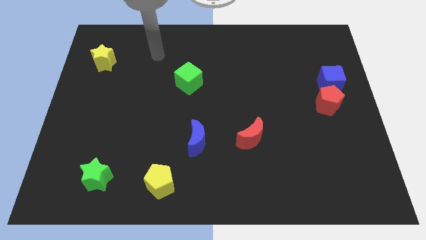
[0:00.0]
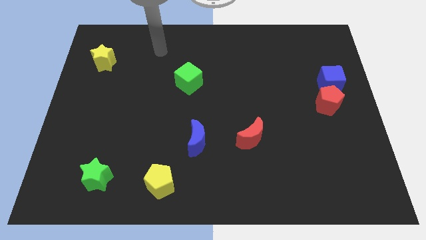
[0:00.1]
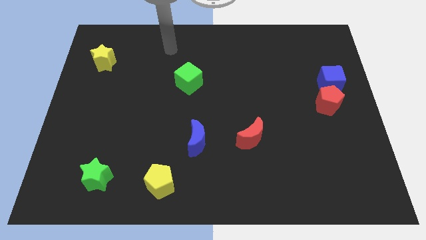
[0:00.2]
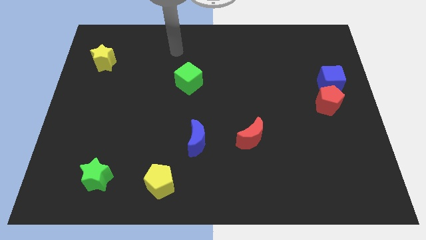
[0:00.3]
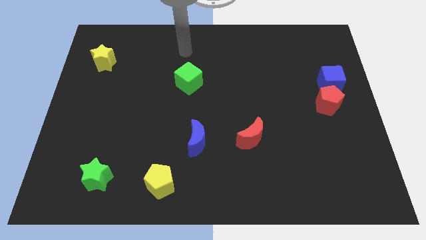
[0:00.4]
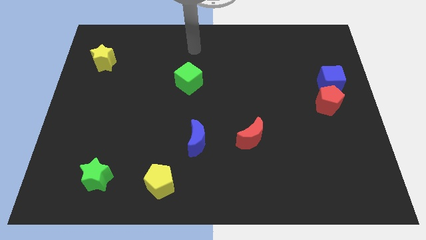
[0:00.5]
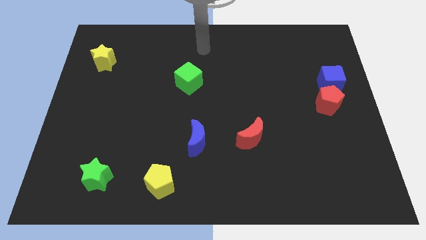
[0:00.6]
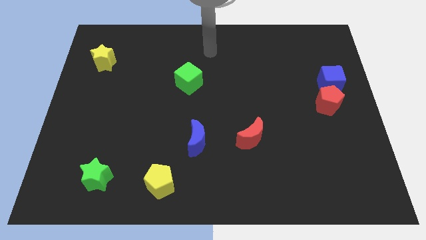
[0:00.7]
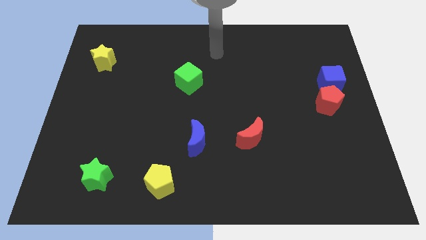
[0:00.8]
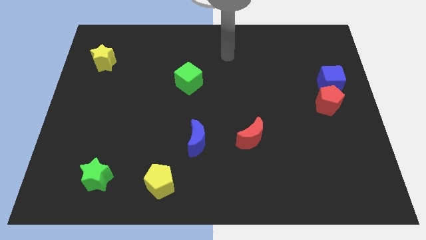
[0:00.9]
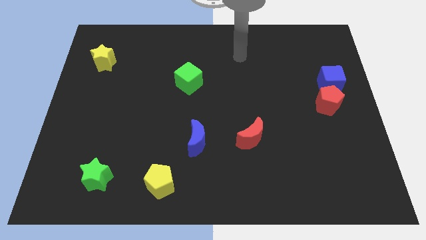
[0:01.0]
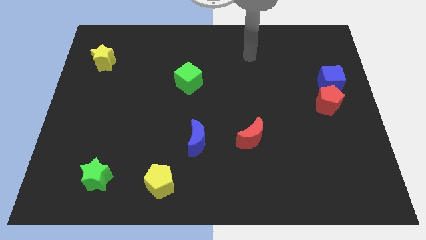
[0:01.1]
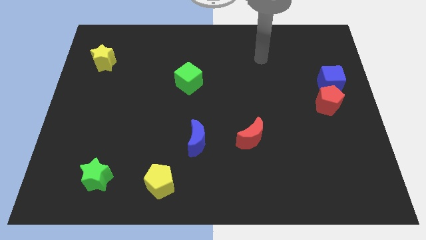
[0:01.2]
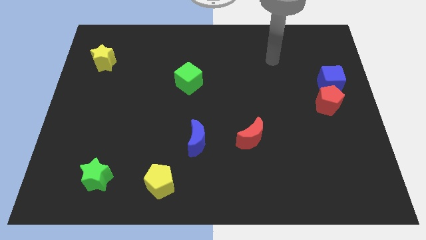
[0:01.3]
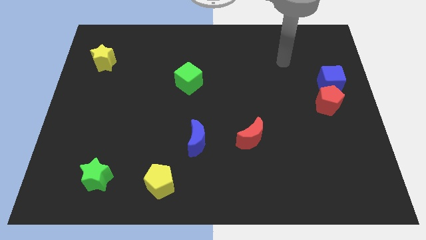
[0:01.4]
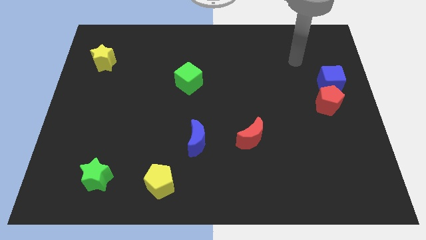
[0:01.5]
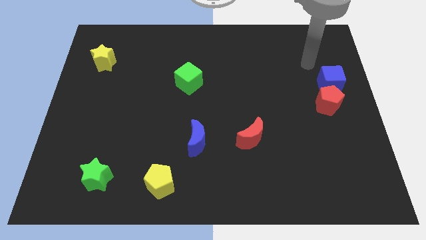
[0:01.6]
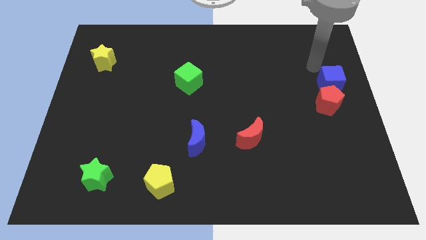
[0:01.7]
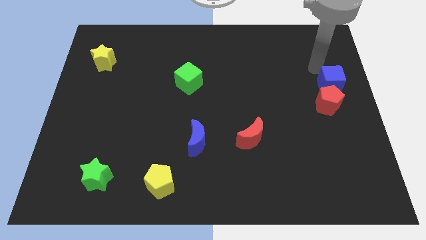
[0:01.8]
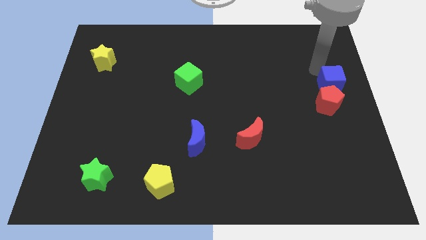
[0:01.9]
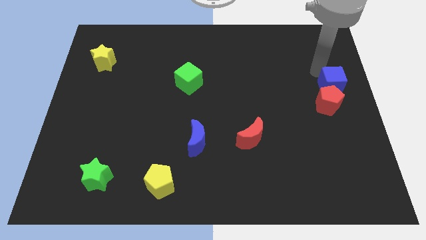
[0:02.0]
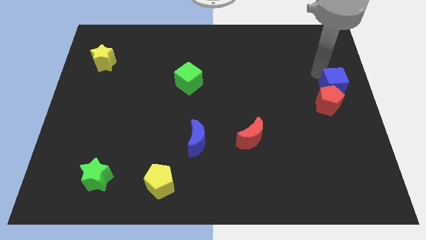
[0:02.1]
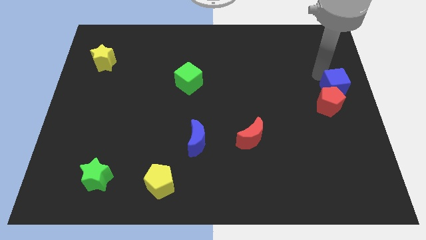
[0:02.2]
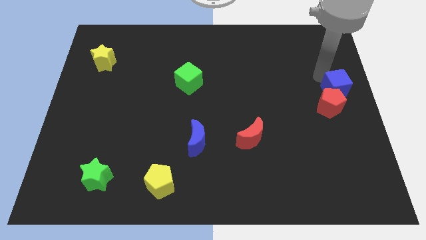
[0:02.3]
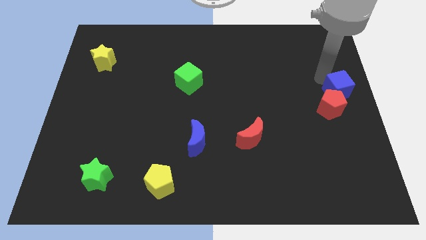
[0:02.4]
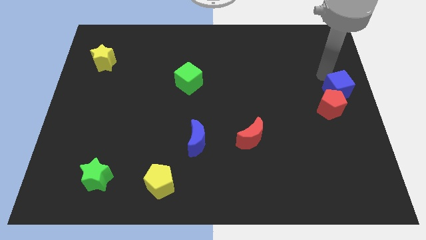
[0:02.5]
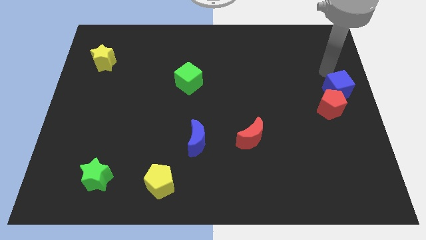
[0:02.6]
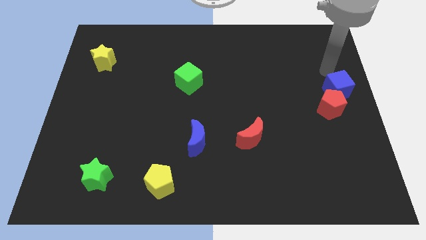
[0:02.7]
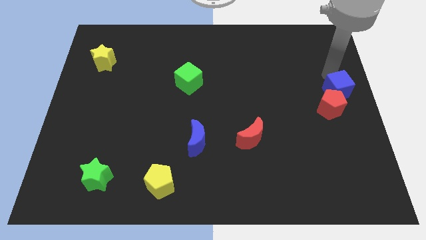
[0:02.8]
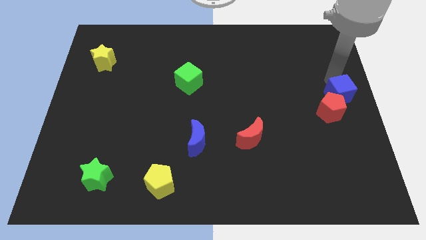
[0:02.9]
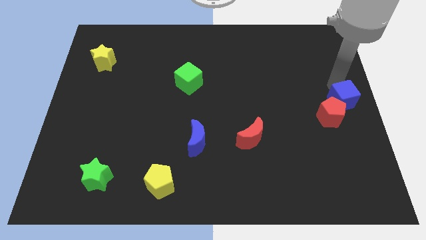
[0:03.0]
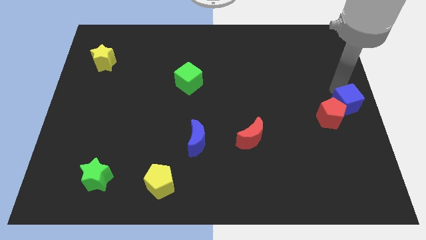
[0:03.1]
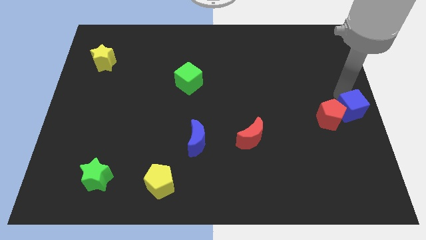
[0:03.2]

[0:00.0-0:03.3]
slightly move the blue cube down

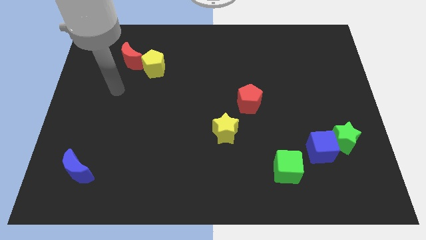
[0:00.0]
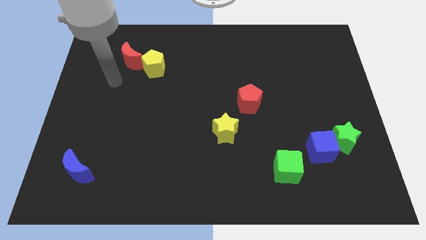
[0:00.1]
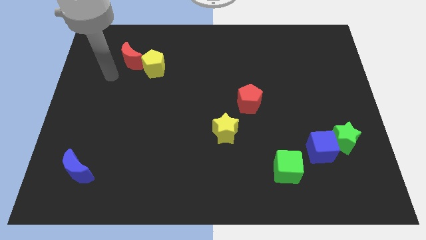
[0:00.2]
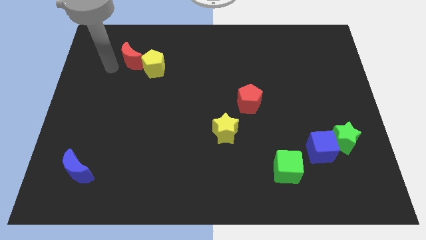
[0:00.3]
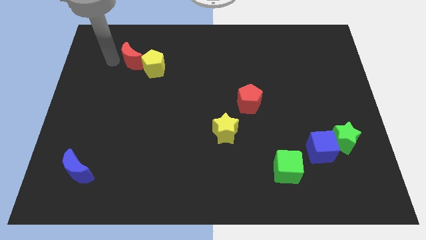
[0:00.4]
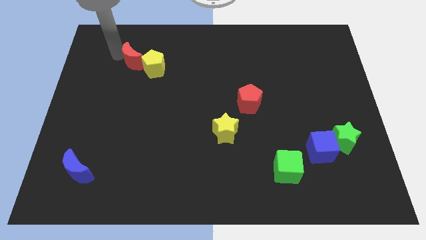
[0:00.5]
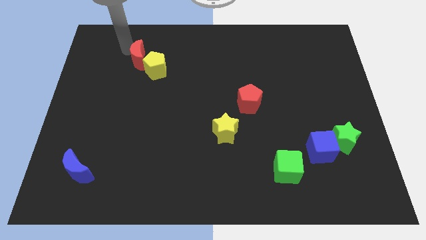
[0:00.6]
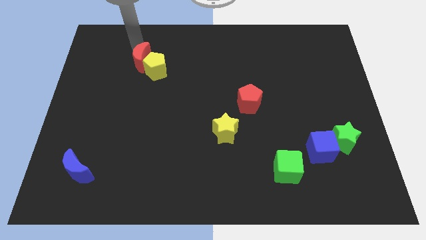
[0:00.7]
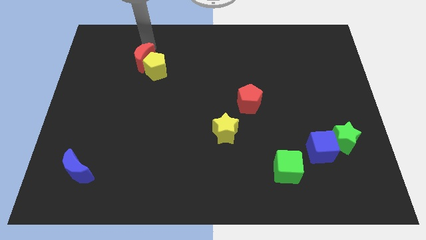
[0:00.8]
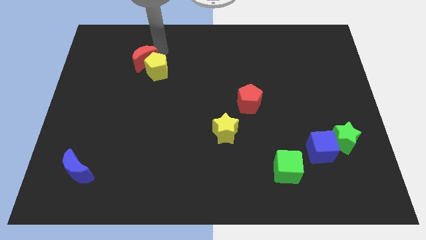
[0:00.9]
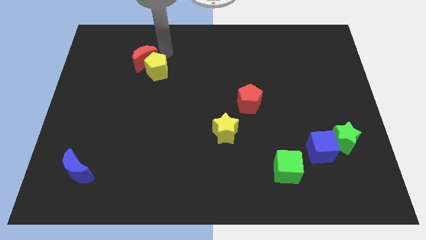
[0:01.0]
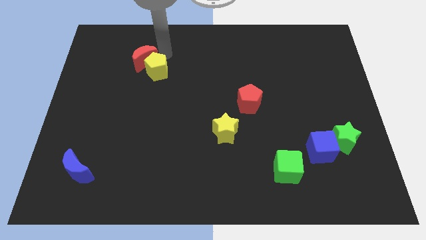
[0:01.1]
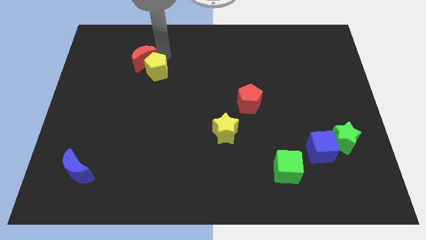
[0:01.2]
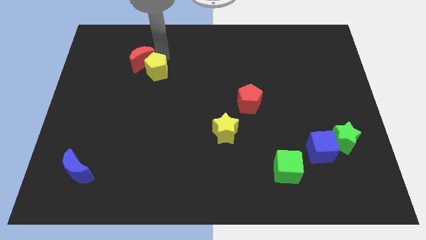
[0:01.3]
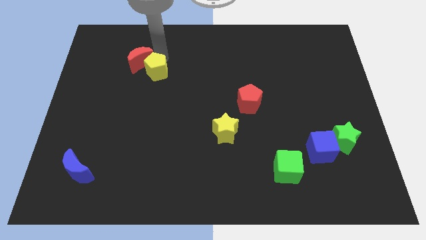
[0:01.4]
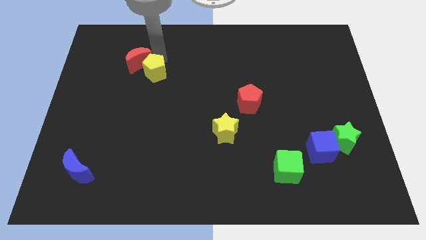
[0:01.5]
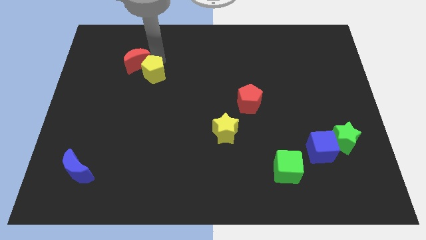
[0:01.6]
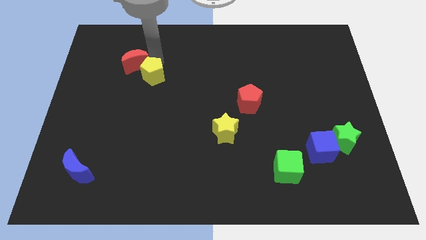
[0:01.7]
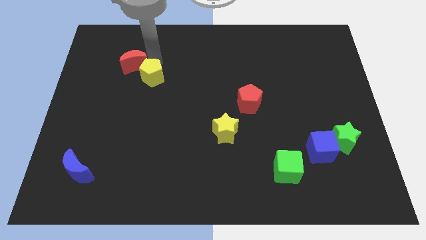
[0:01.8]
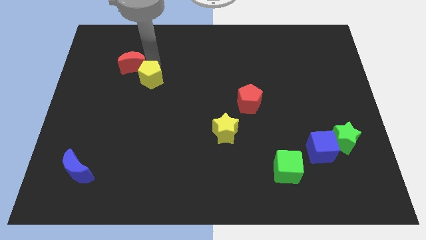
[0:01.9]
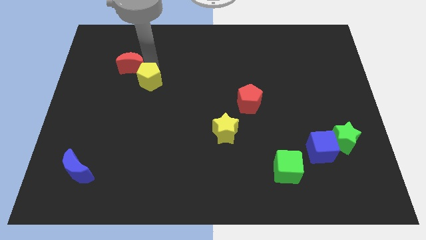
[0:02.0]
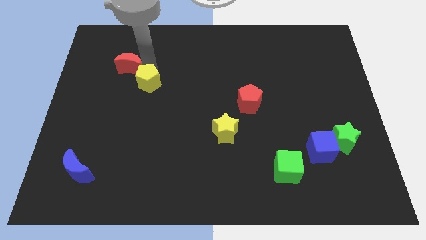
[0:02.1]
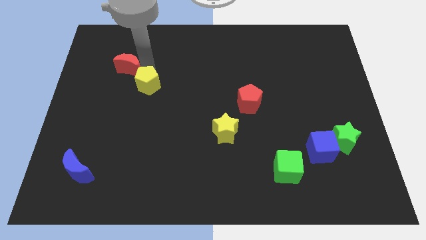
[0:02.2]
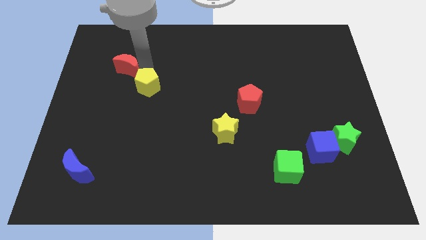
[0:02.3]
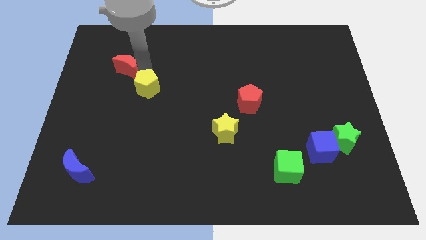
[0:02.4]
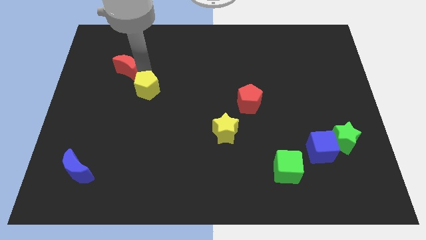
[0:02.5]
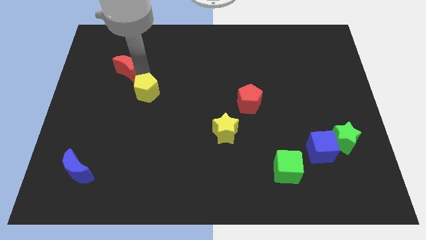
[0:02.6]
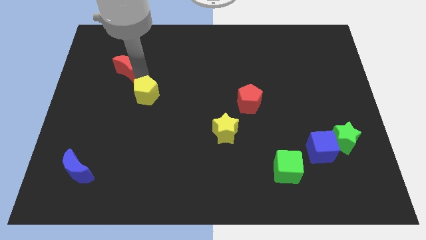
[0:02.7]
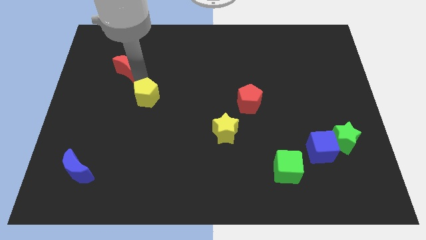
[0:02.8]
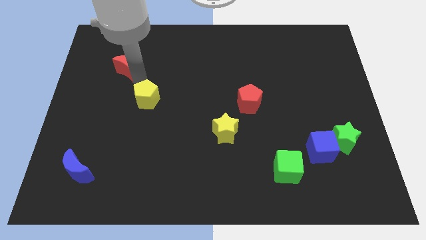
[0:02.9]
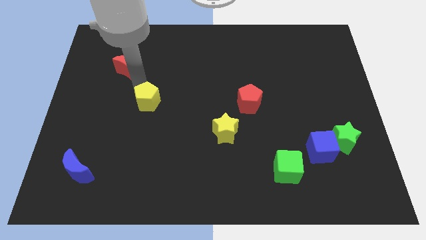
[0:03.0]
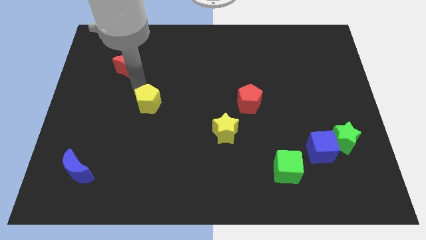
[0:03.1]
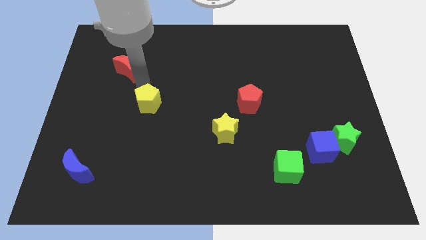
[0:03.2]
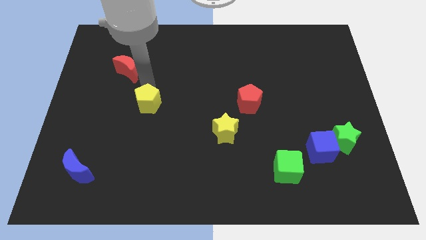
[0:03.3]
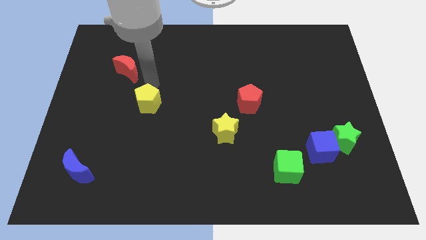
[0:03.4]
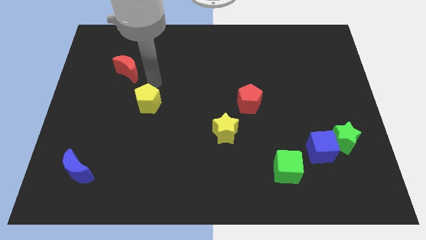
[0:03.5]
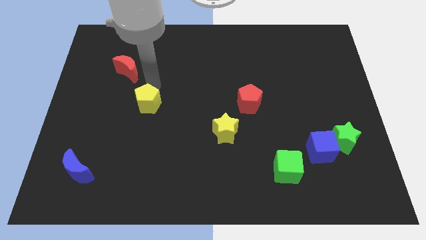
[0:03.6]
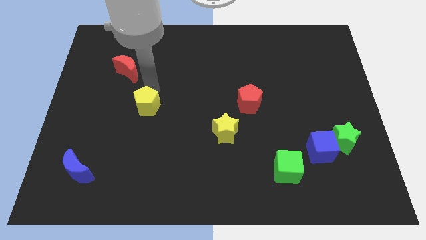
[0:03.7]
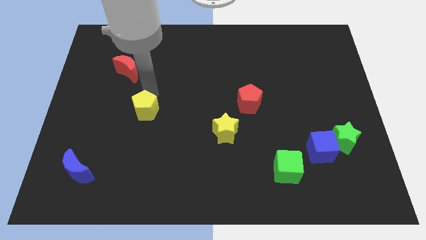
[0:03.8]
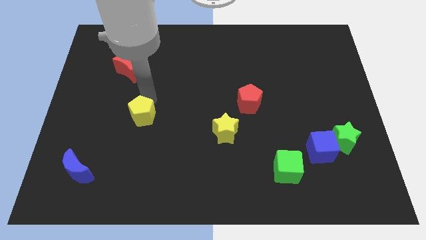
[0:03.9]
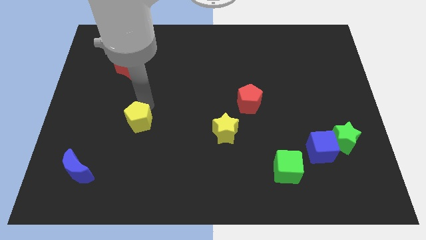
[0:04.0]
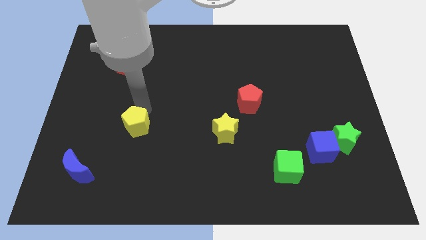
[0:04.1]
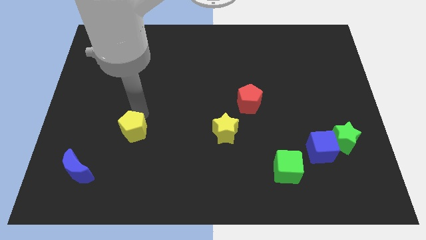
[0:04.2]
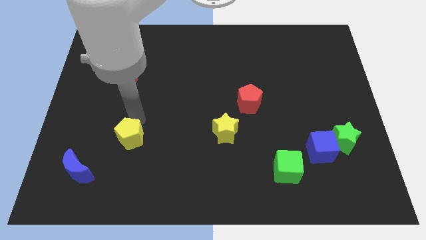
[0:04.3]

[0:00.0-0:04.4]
move the yellow pentagon down

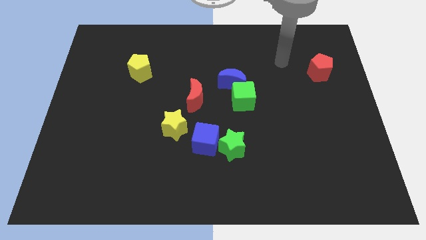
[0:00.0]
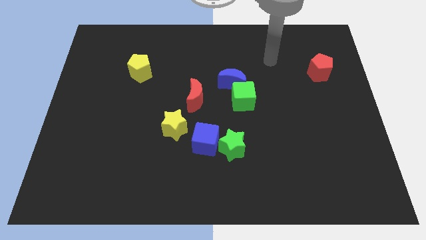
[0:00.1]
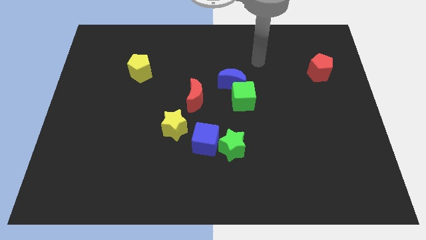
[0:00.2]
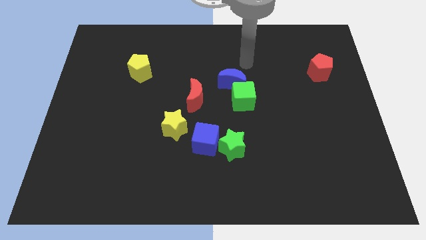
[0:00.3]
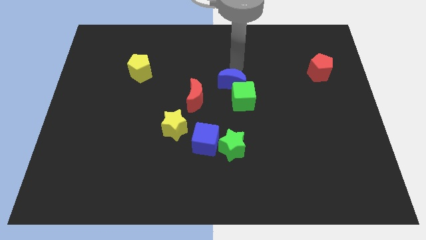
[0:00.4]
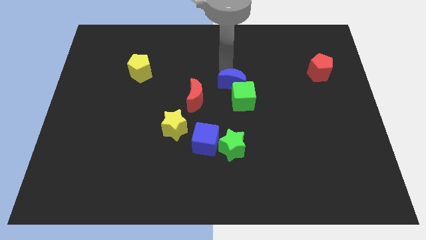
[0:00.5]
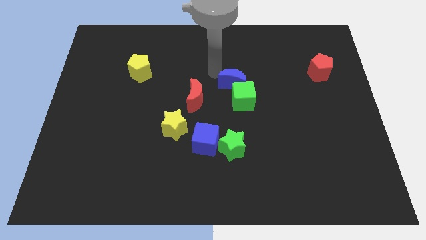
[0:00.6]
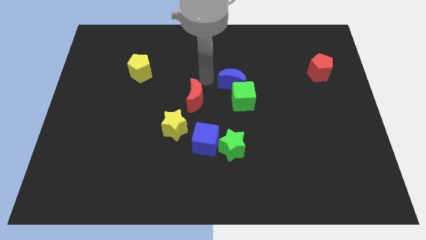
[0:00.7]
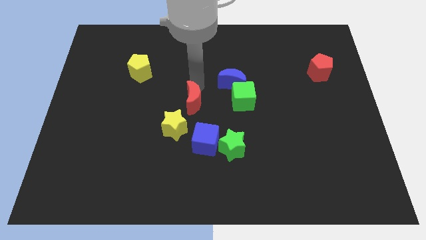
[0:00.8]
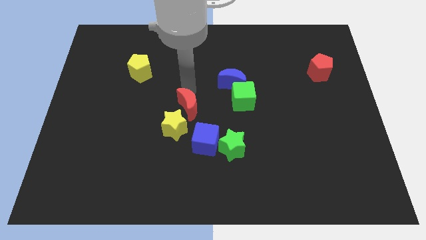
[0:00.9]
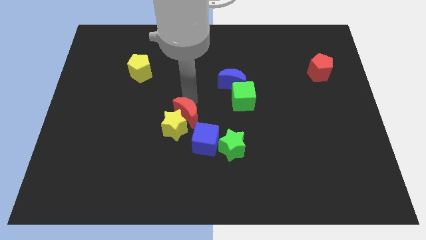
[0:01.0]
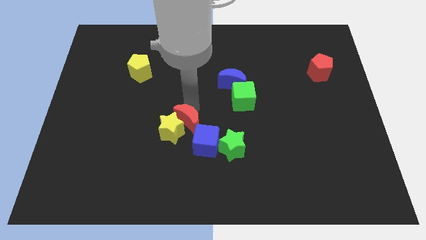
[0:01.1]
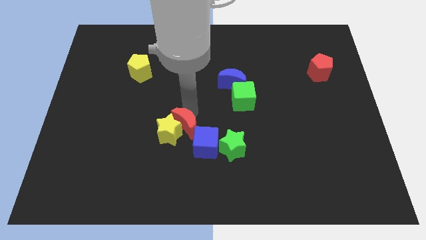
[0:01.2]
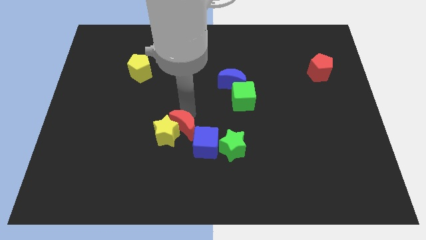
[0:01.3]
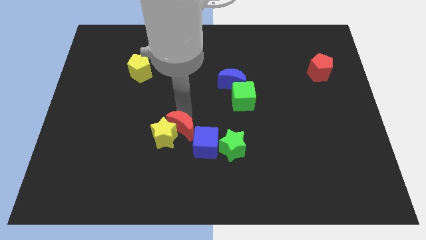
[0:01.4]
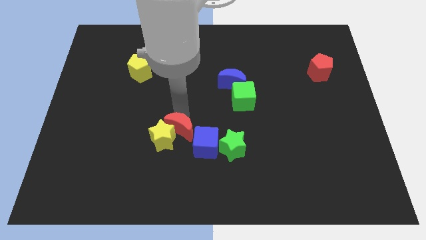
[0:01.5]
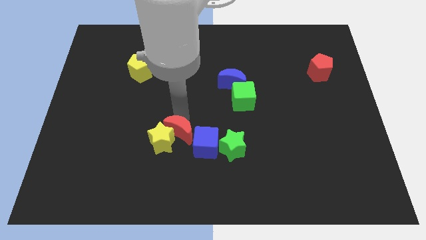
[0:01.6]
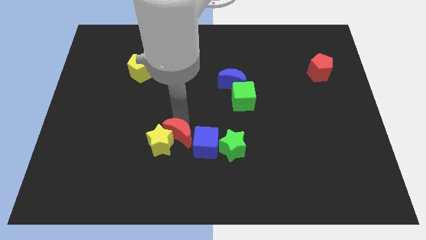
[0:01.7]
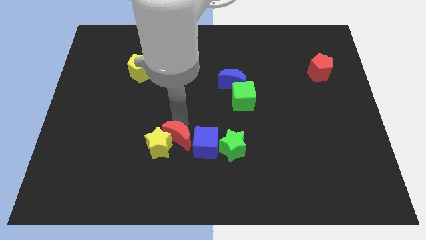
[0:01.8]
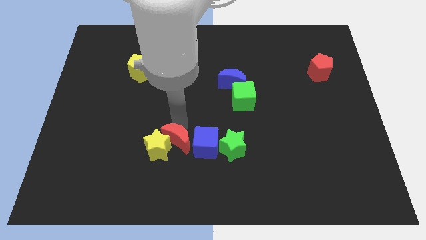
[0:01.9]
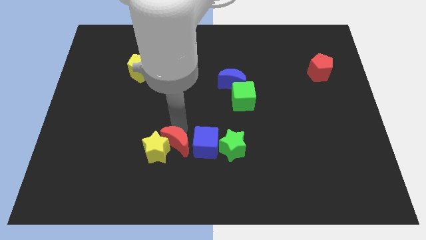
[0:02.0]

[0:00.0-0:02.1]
move the yellow star down and to the left diagonally somewhat
